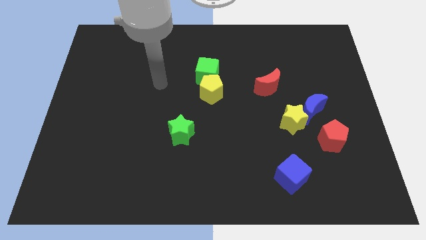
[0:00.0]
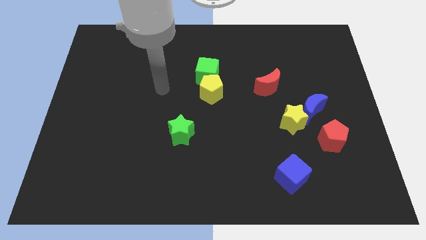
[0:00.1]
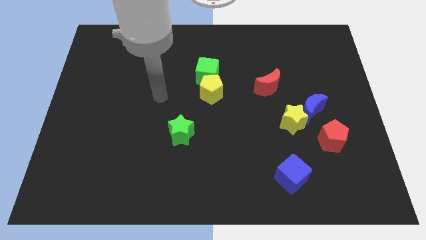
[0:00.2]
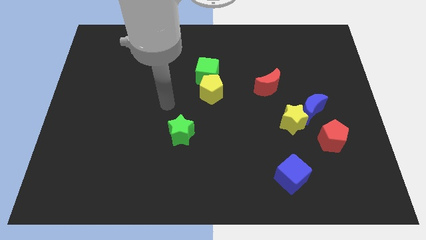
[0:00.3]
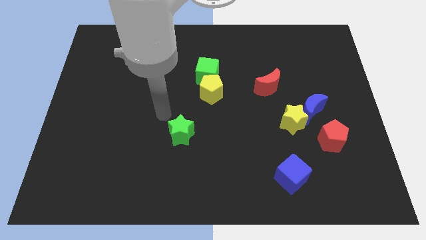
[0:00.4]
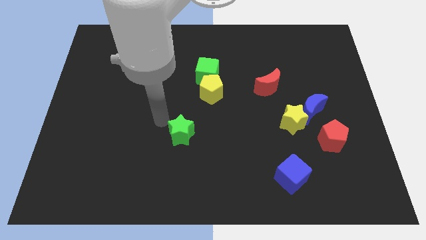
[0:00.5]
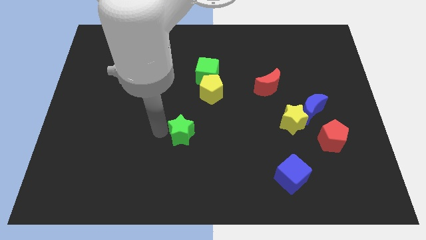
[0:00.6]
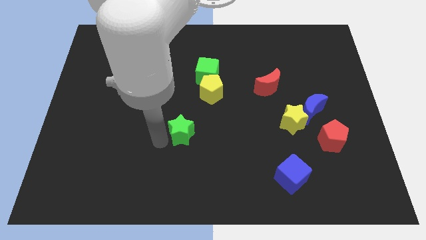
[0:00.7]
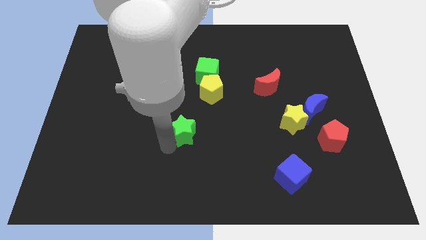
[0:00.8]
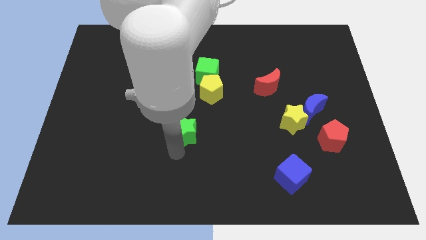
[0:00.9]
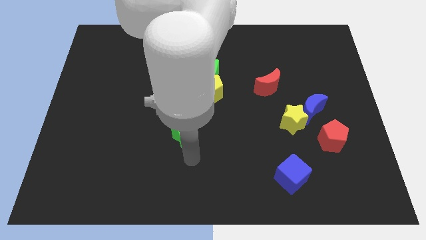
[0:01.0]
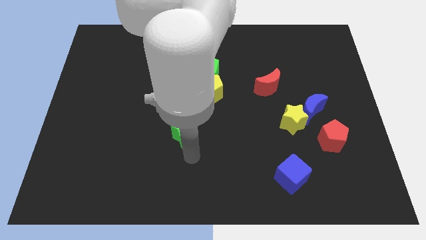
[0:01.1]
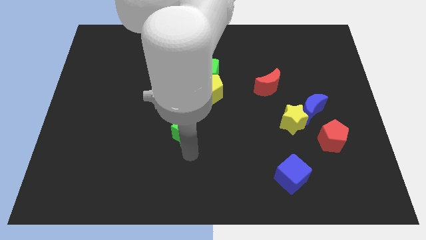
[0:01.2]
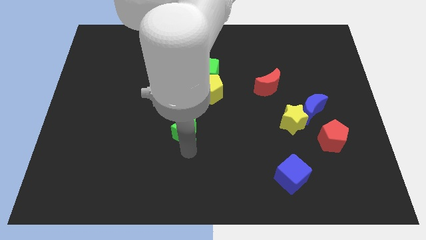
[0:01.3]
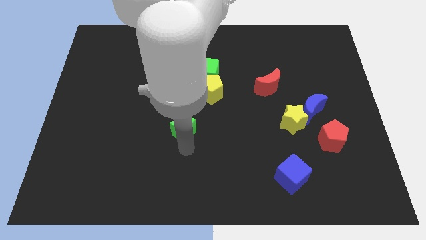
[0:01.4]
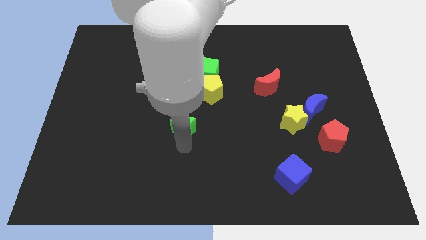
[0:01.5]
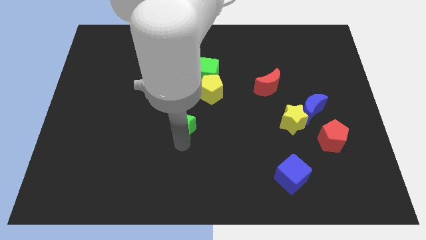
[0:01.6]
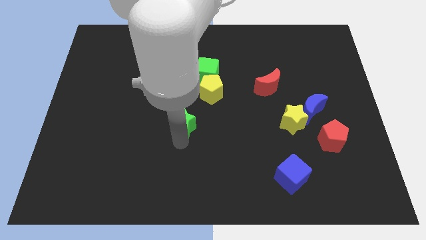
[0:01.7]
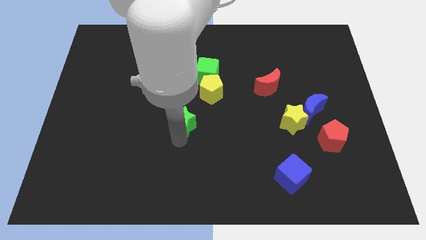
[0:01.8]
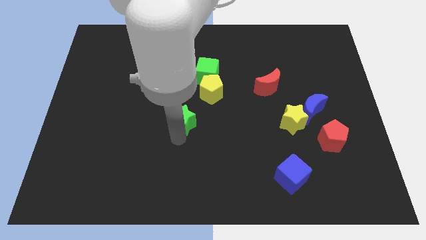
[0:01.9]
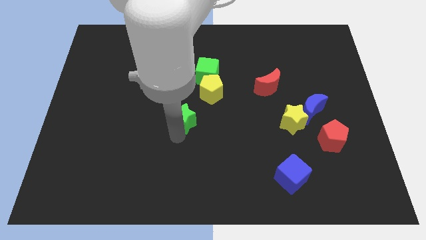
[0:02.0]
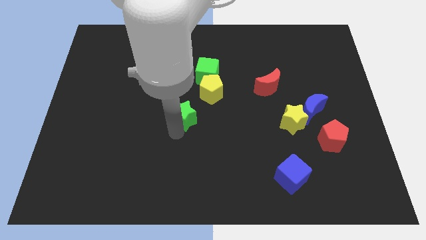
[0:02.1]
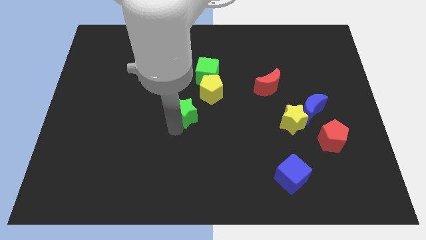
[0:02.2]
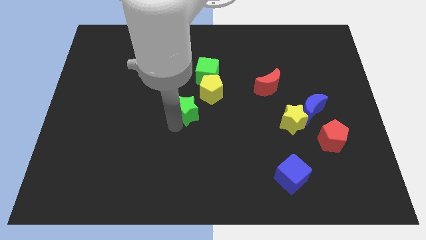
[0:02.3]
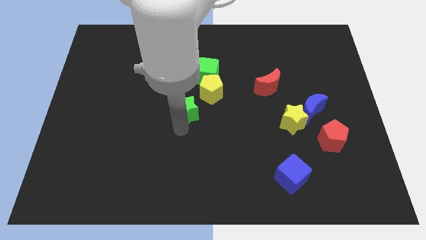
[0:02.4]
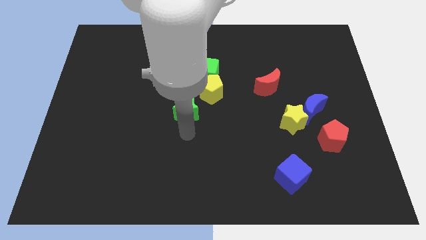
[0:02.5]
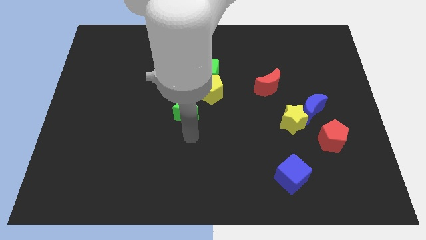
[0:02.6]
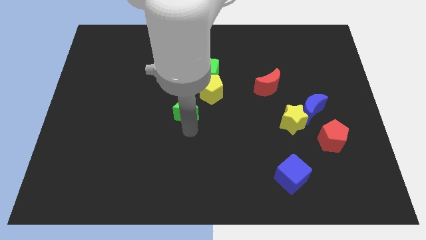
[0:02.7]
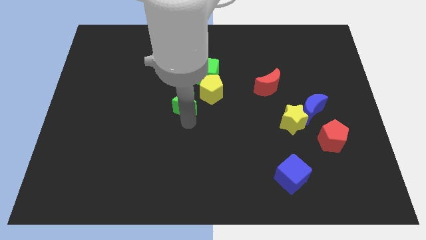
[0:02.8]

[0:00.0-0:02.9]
slightly slide the green star up

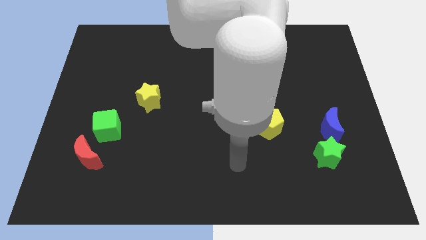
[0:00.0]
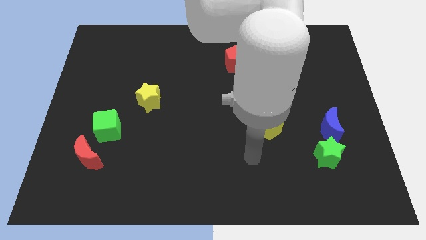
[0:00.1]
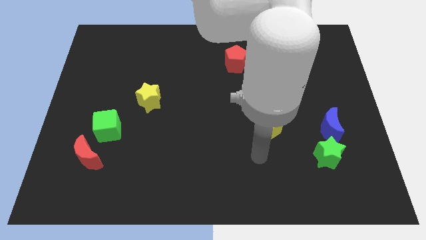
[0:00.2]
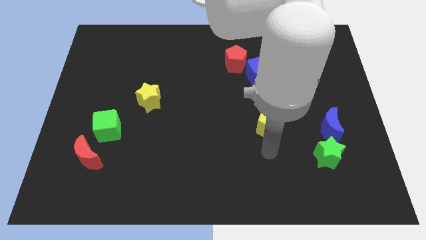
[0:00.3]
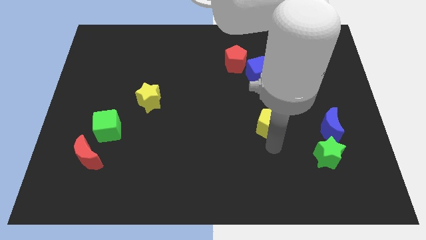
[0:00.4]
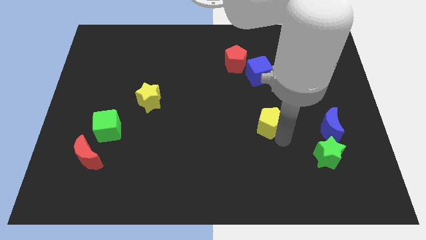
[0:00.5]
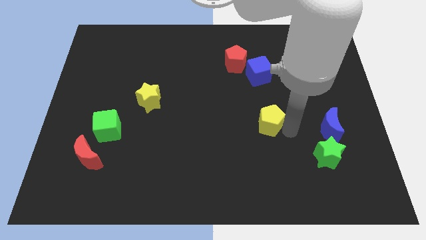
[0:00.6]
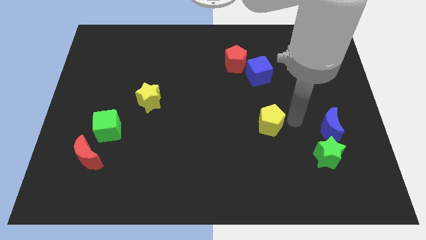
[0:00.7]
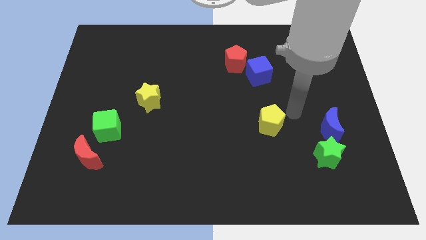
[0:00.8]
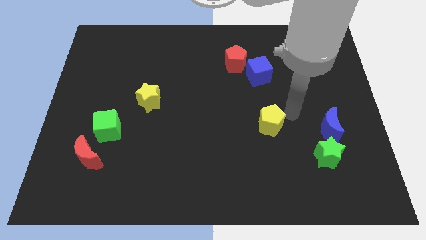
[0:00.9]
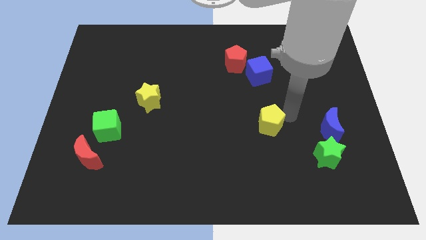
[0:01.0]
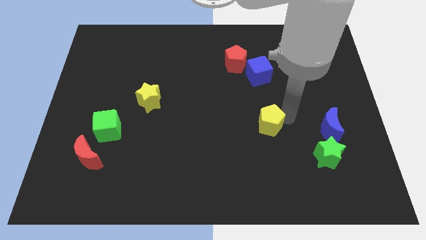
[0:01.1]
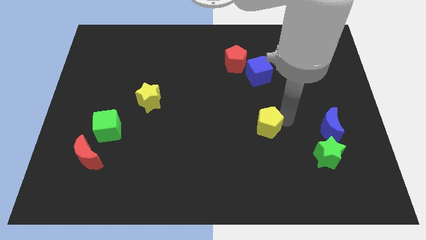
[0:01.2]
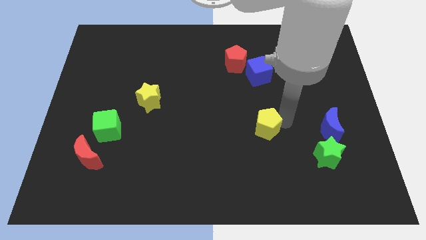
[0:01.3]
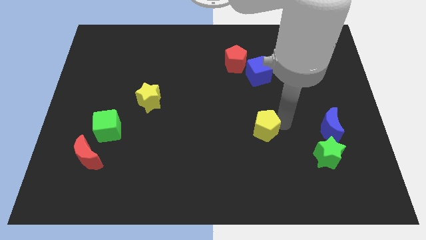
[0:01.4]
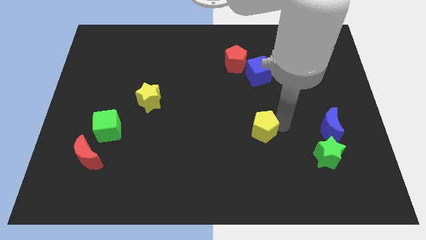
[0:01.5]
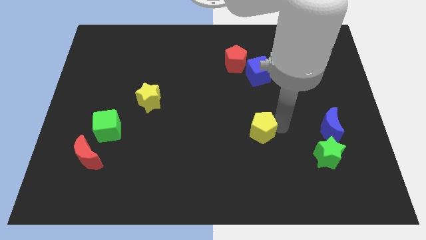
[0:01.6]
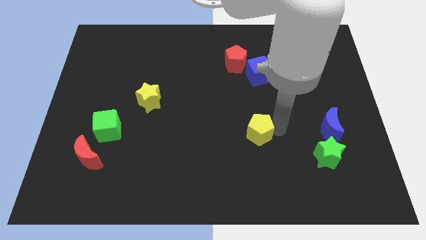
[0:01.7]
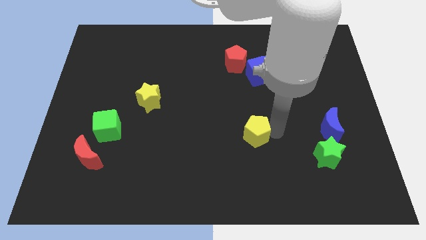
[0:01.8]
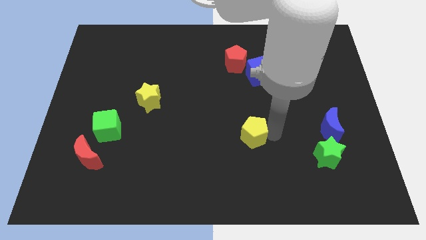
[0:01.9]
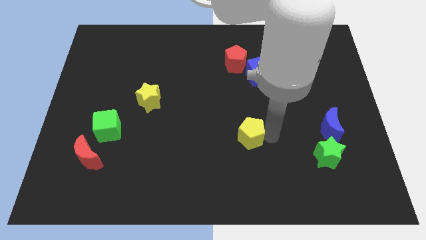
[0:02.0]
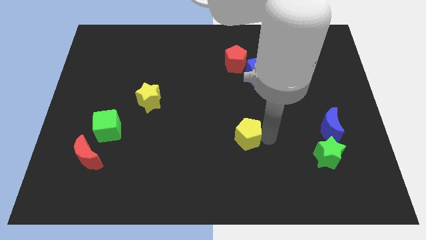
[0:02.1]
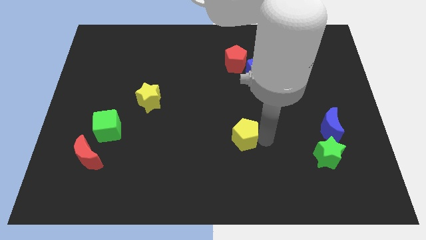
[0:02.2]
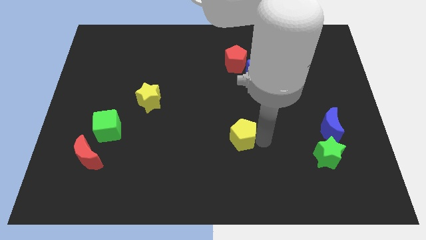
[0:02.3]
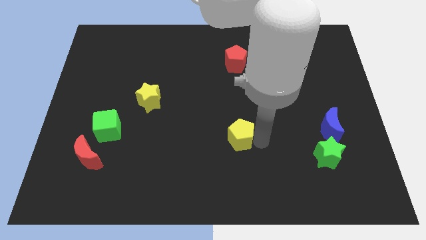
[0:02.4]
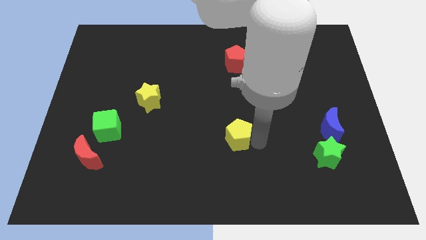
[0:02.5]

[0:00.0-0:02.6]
slightly push the yellow pentagon left

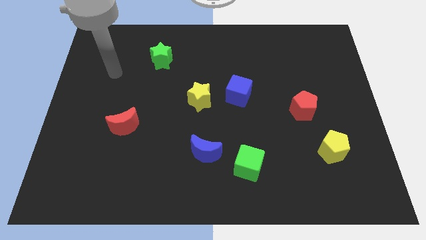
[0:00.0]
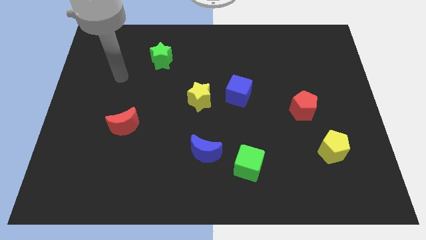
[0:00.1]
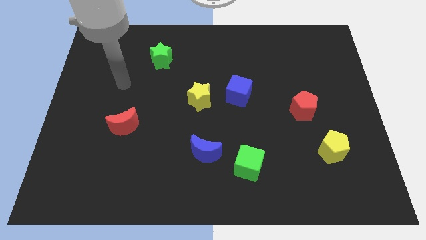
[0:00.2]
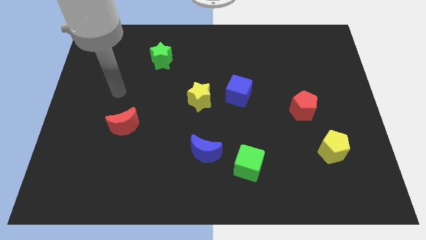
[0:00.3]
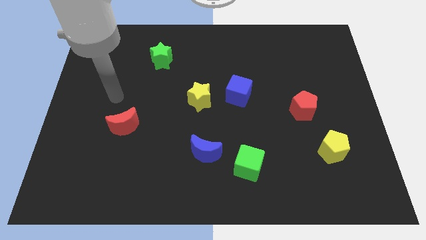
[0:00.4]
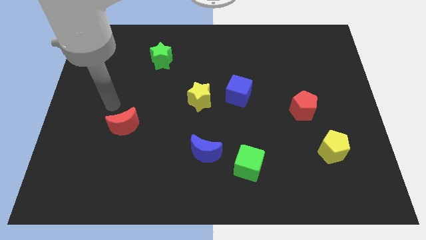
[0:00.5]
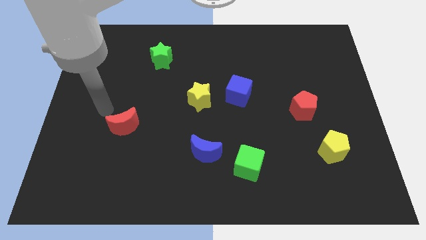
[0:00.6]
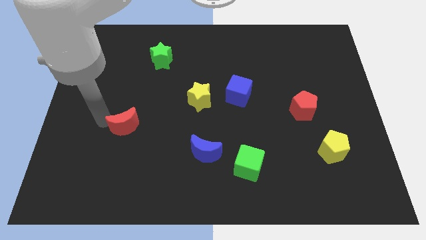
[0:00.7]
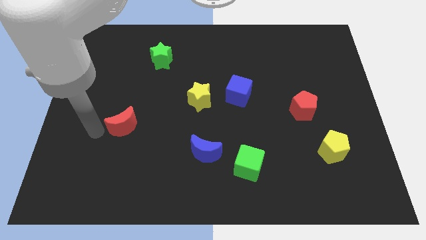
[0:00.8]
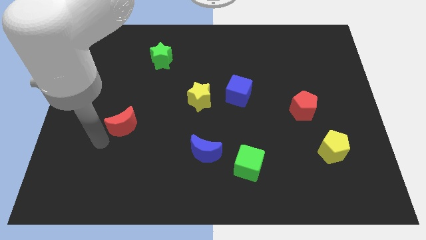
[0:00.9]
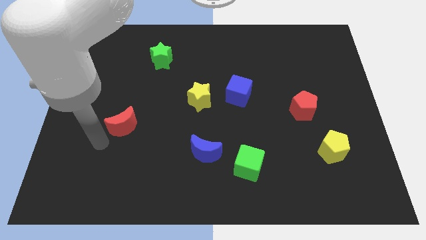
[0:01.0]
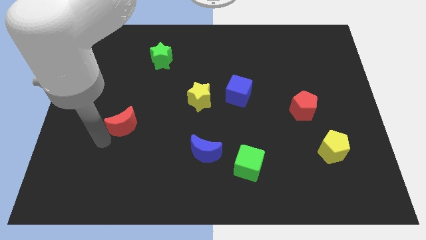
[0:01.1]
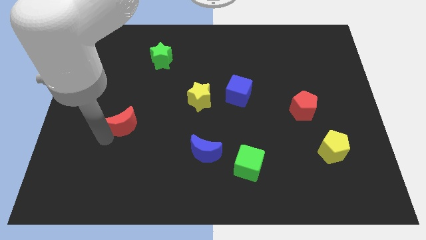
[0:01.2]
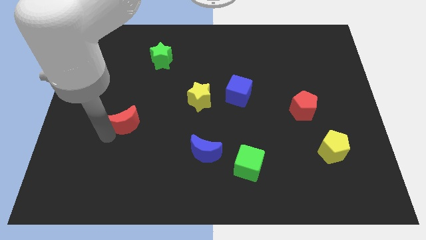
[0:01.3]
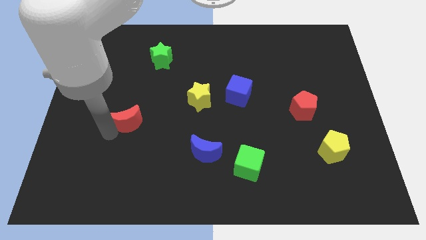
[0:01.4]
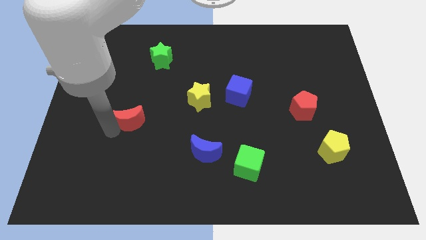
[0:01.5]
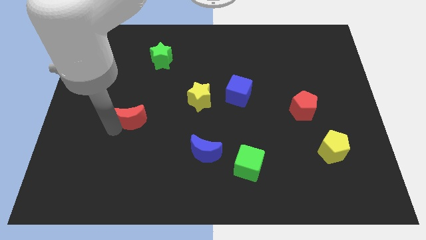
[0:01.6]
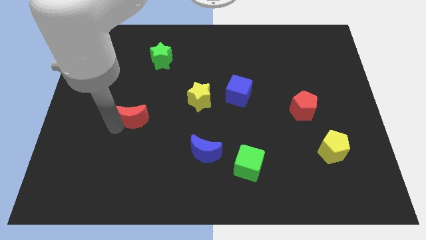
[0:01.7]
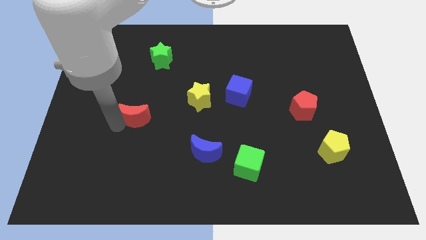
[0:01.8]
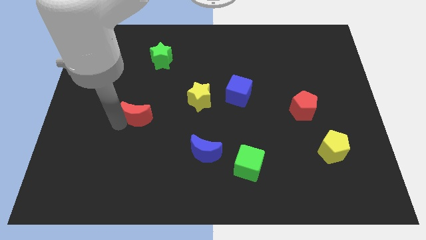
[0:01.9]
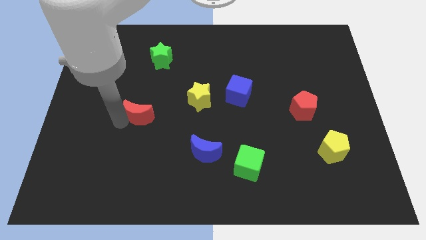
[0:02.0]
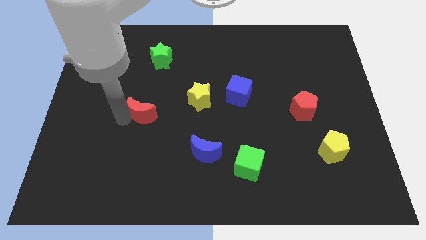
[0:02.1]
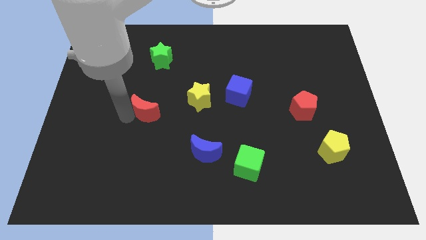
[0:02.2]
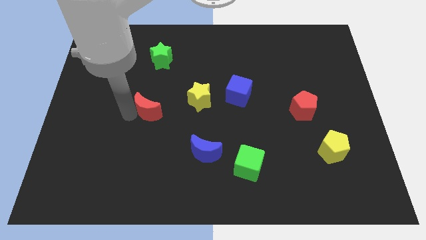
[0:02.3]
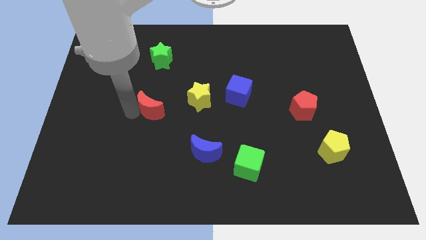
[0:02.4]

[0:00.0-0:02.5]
push the red moon a little diagonally upwards and to the right

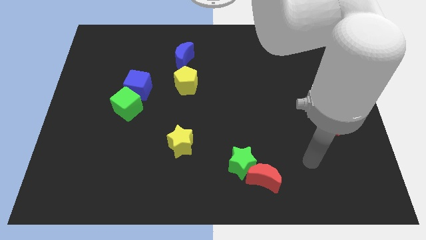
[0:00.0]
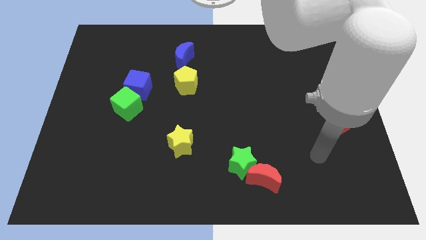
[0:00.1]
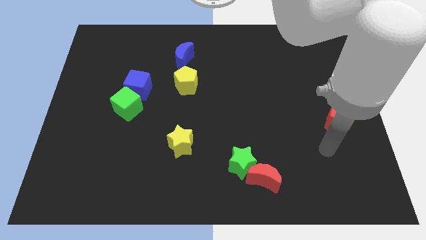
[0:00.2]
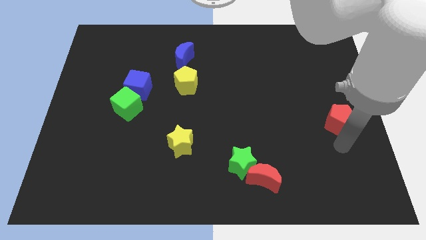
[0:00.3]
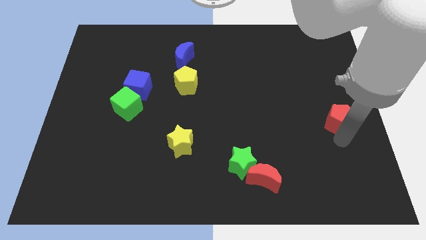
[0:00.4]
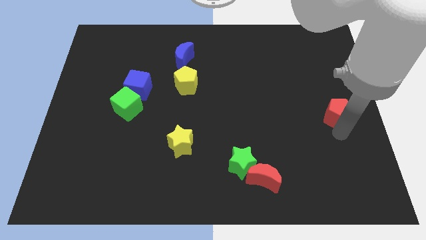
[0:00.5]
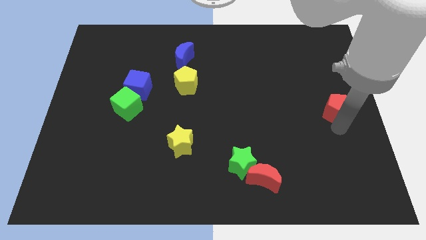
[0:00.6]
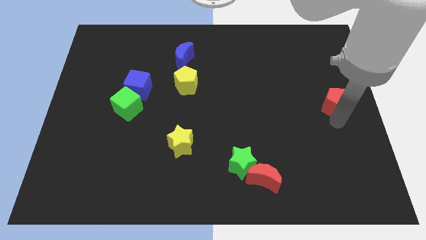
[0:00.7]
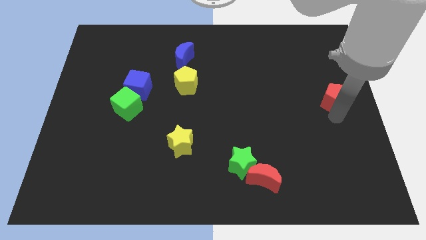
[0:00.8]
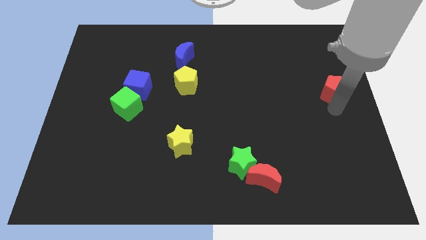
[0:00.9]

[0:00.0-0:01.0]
push the red pentagon upwards a little bit
